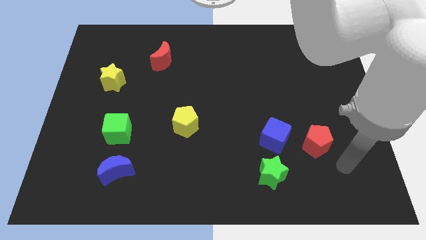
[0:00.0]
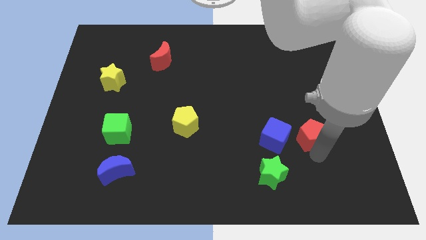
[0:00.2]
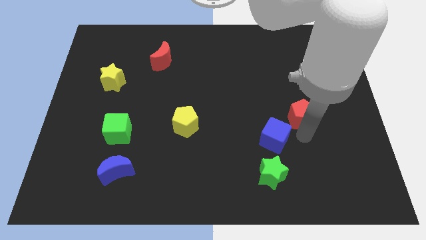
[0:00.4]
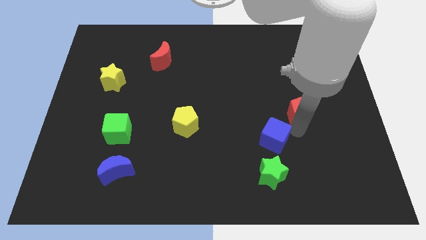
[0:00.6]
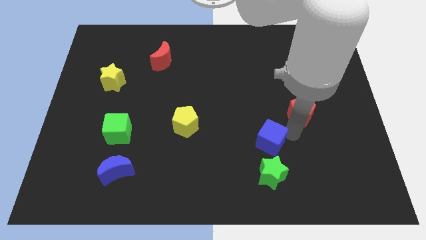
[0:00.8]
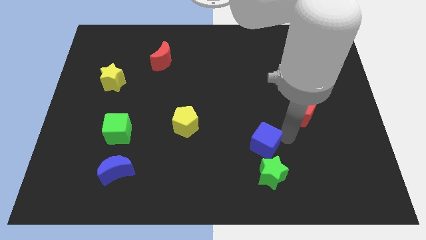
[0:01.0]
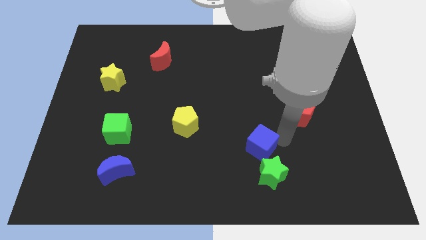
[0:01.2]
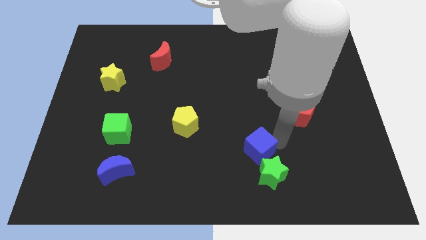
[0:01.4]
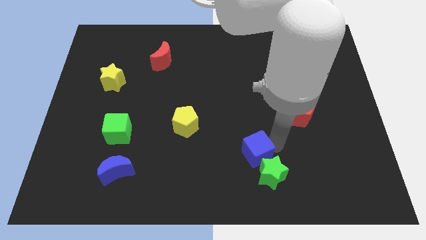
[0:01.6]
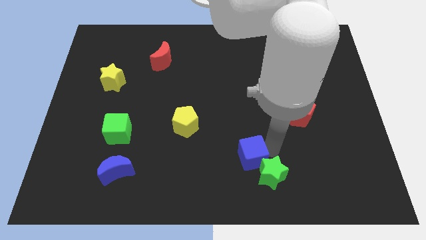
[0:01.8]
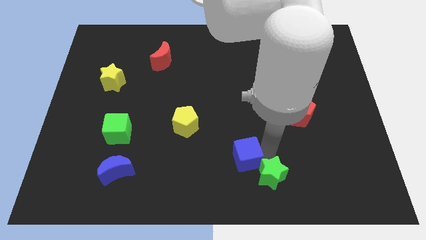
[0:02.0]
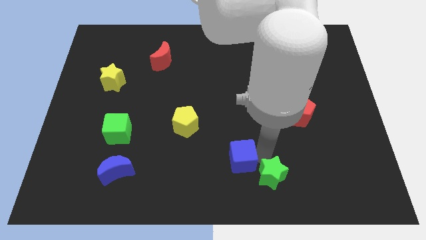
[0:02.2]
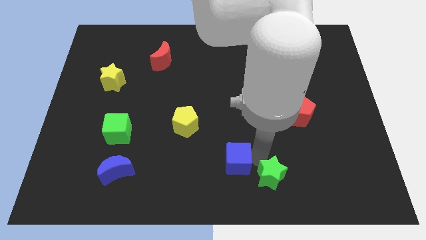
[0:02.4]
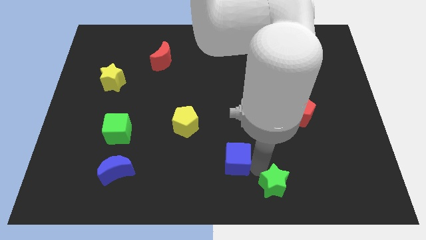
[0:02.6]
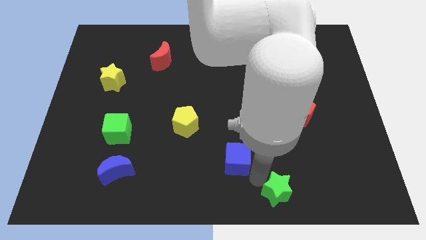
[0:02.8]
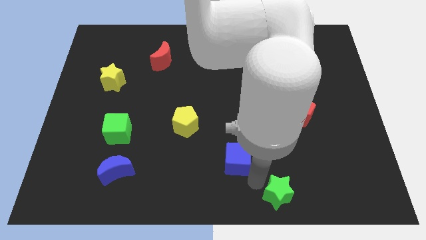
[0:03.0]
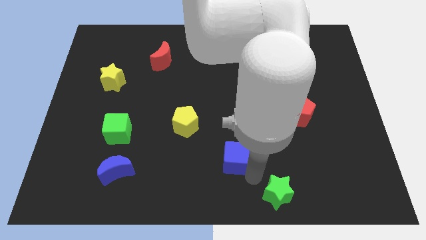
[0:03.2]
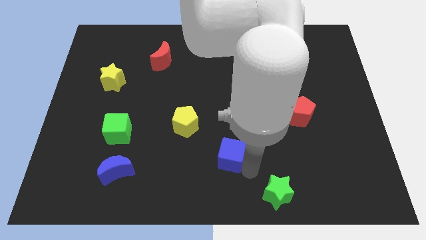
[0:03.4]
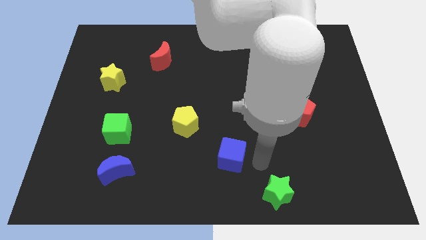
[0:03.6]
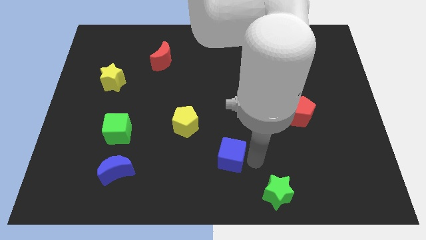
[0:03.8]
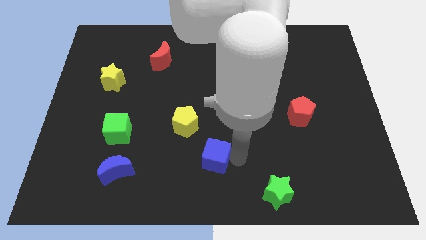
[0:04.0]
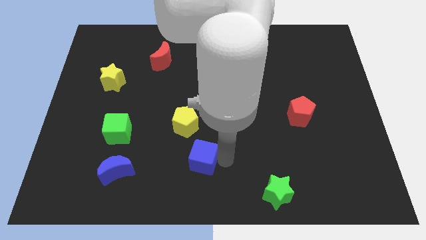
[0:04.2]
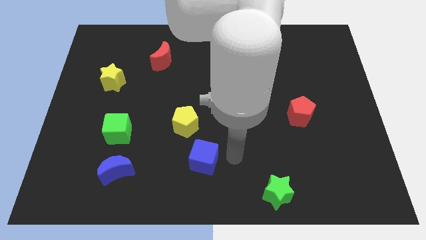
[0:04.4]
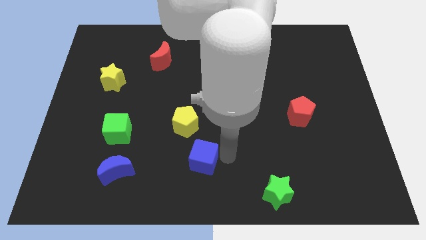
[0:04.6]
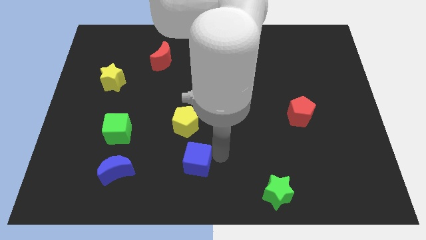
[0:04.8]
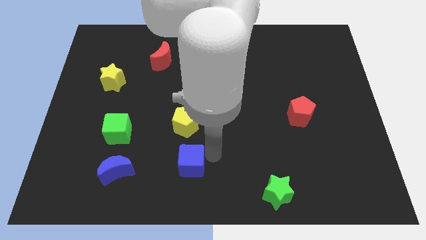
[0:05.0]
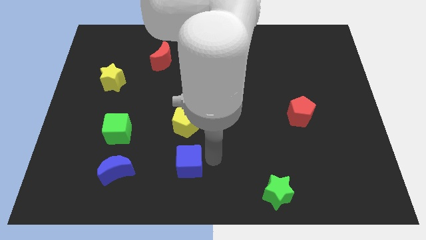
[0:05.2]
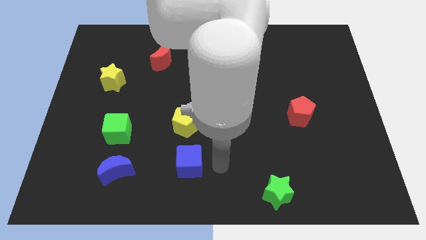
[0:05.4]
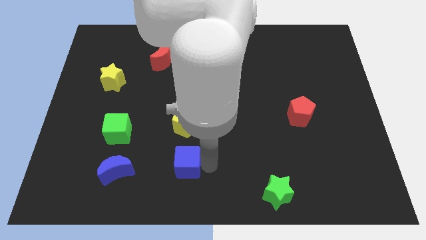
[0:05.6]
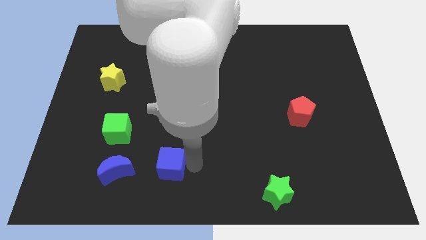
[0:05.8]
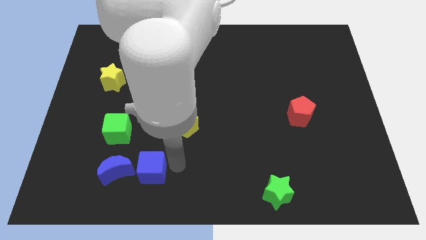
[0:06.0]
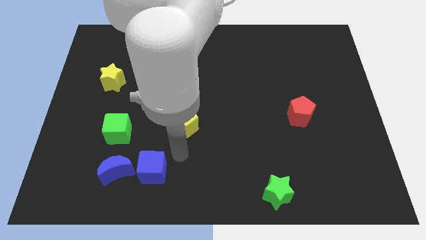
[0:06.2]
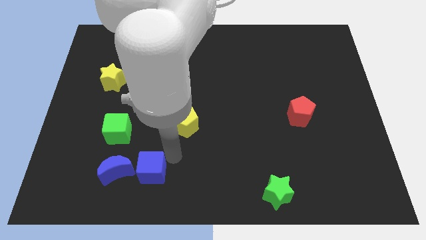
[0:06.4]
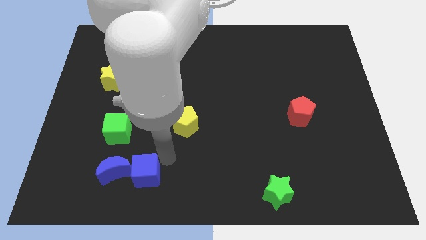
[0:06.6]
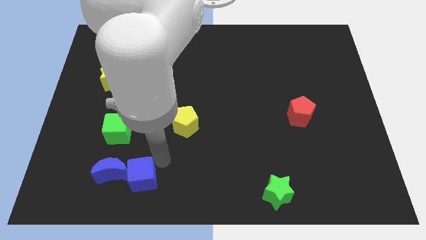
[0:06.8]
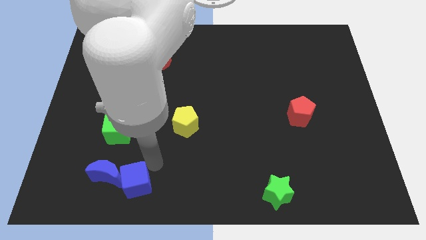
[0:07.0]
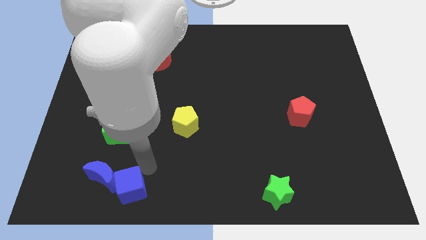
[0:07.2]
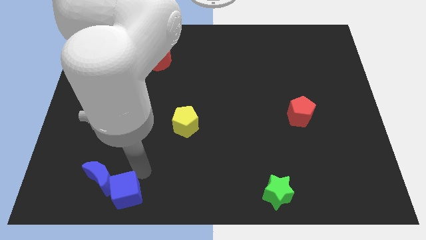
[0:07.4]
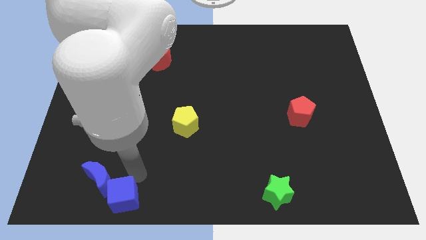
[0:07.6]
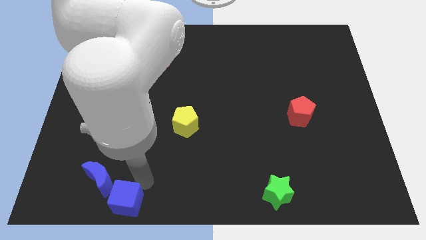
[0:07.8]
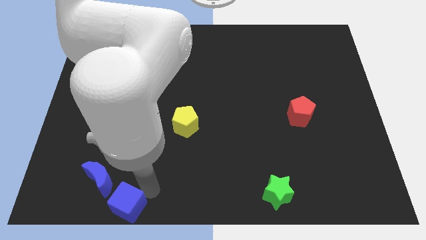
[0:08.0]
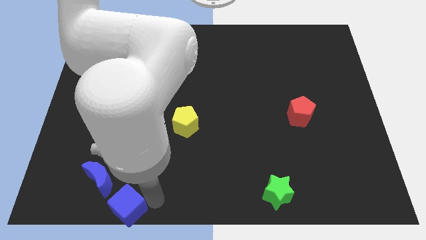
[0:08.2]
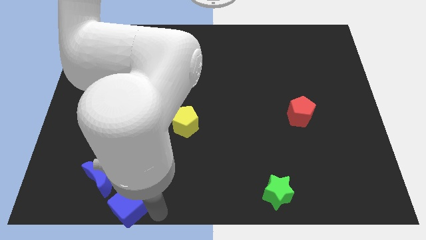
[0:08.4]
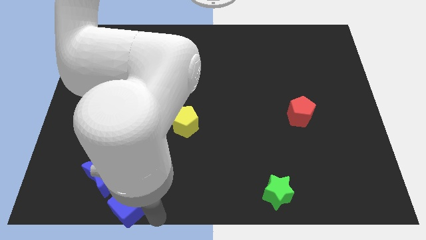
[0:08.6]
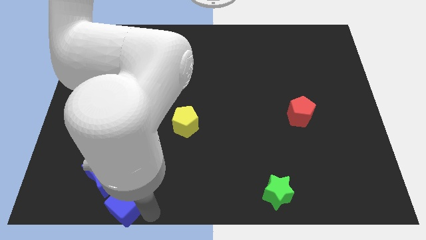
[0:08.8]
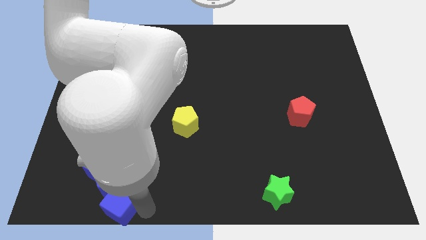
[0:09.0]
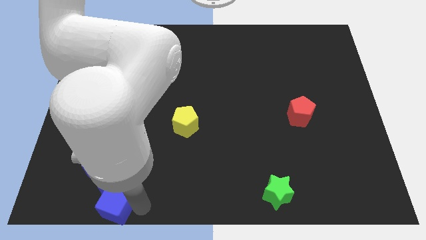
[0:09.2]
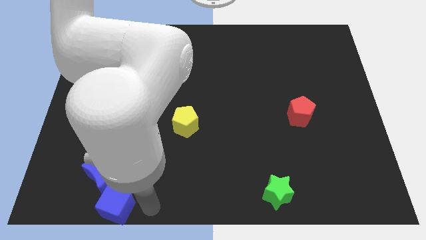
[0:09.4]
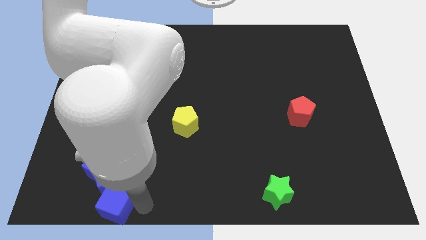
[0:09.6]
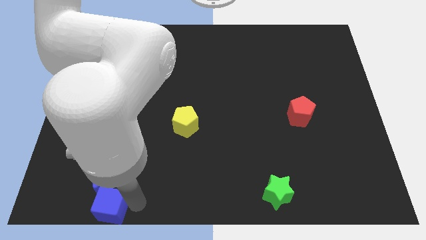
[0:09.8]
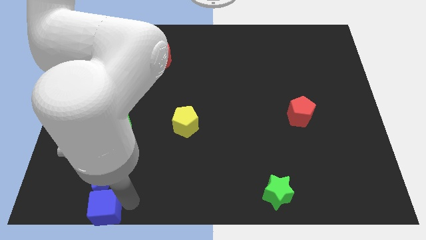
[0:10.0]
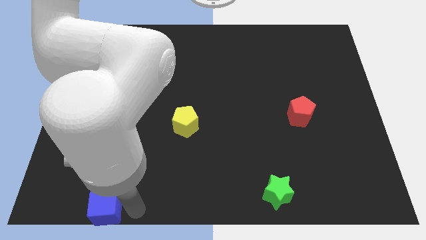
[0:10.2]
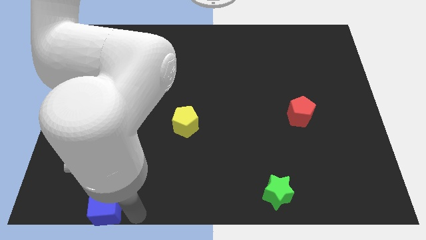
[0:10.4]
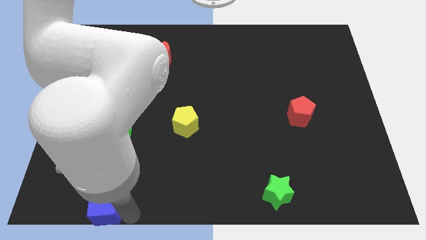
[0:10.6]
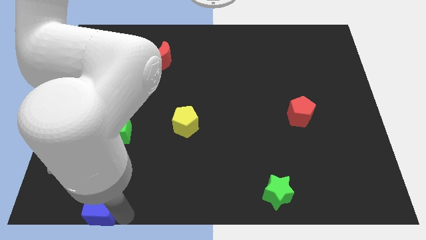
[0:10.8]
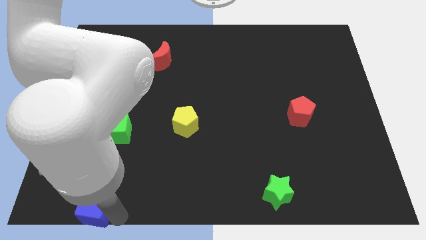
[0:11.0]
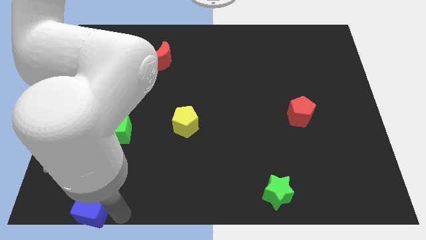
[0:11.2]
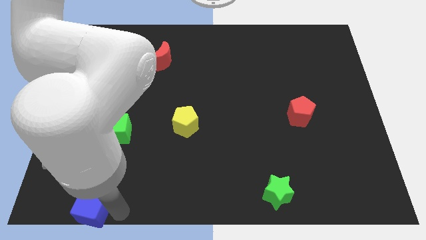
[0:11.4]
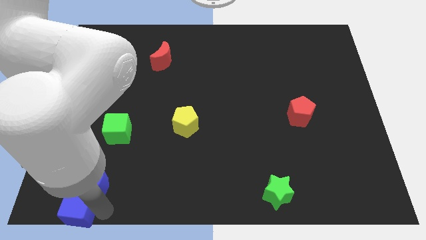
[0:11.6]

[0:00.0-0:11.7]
push the blue cube to the lower left corner

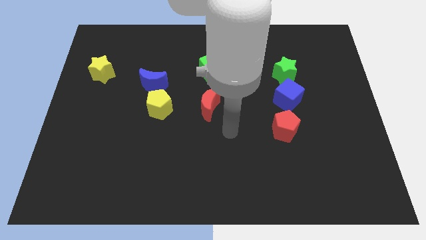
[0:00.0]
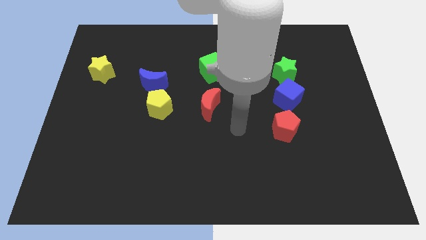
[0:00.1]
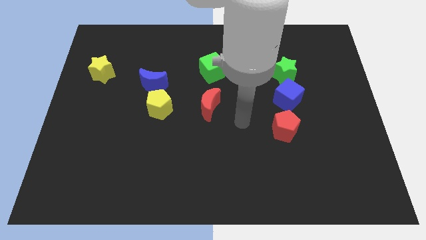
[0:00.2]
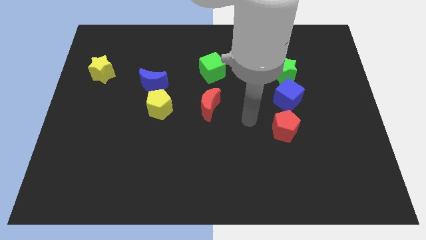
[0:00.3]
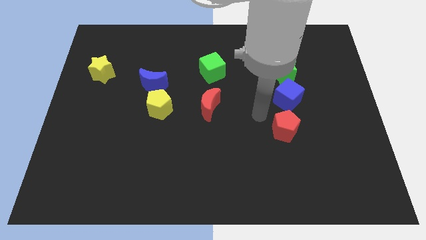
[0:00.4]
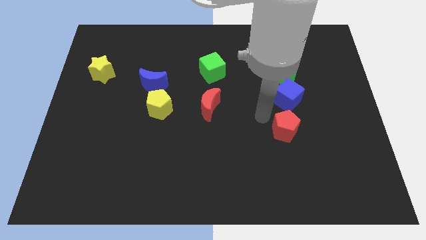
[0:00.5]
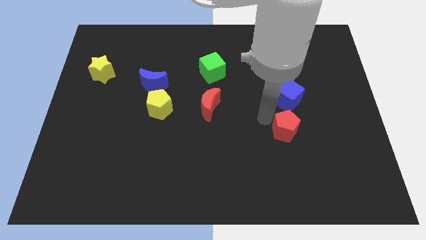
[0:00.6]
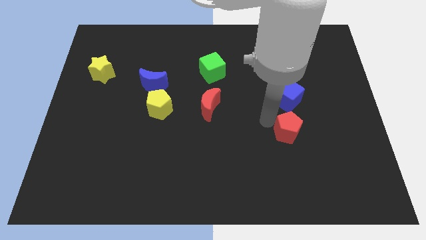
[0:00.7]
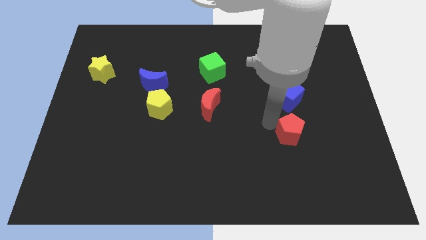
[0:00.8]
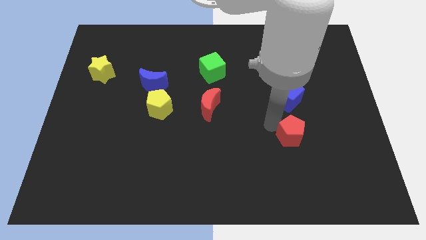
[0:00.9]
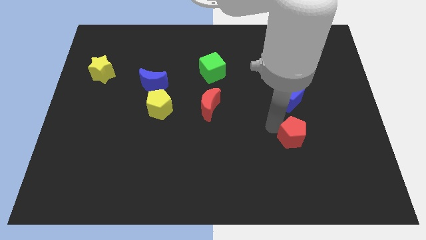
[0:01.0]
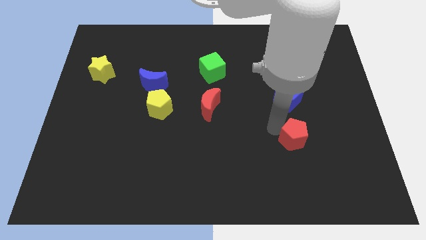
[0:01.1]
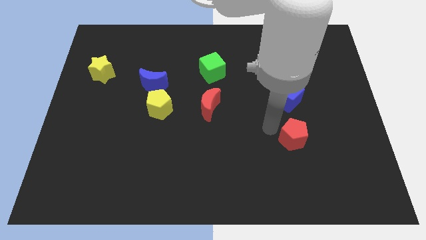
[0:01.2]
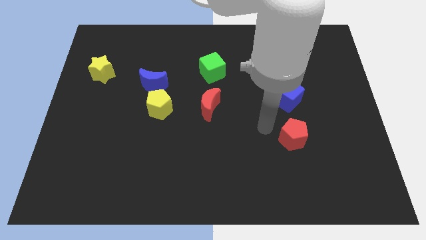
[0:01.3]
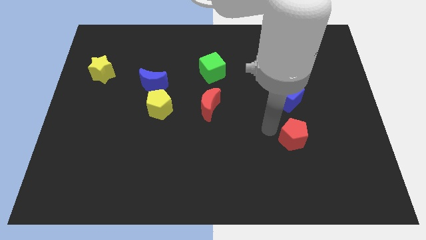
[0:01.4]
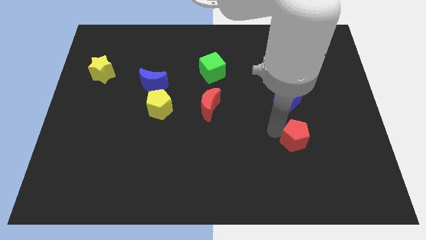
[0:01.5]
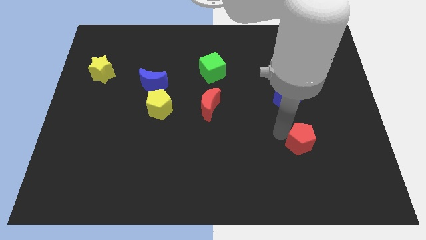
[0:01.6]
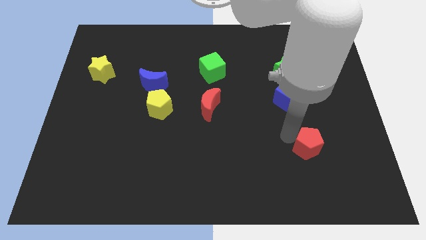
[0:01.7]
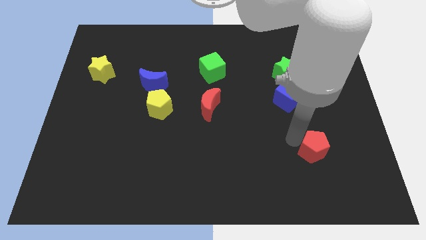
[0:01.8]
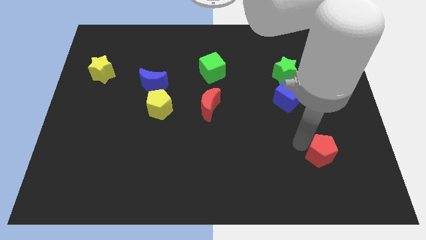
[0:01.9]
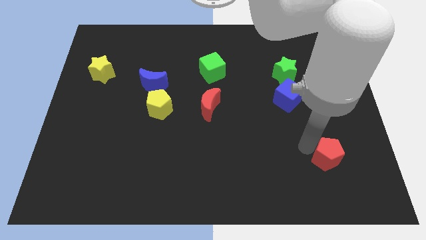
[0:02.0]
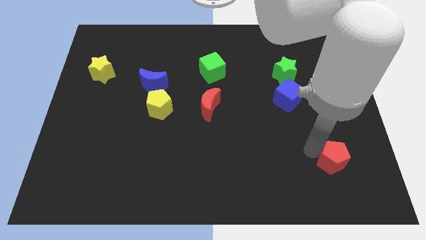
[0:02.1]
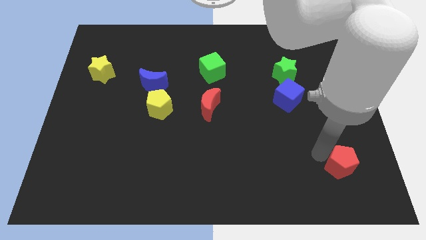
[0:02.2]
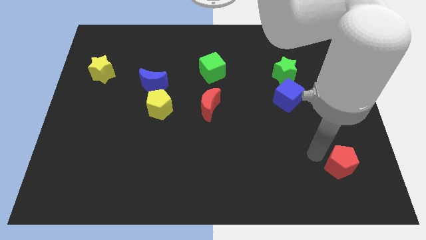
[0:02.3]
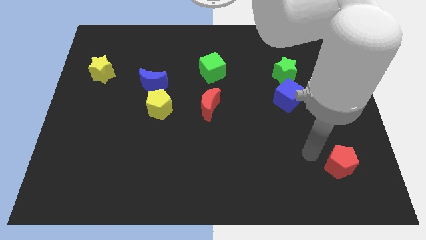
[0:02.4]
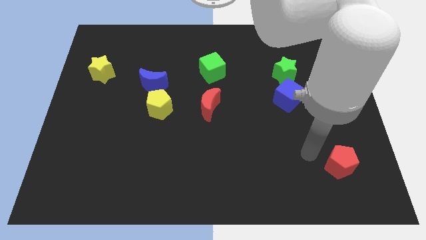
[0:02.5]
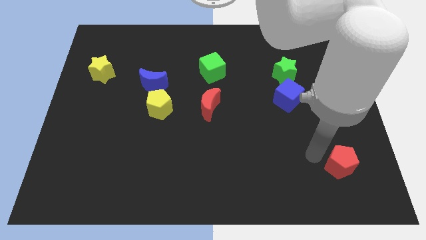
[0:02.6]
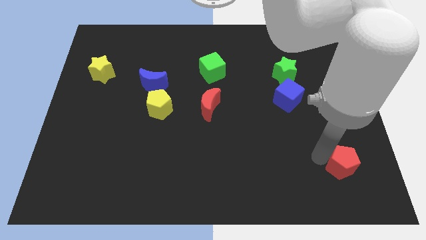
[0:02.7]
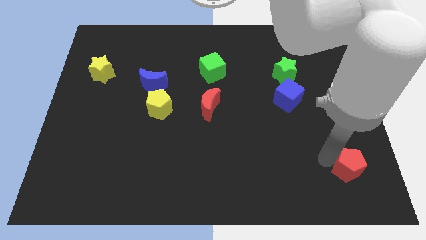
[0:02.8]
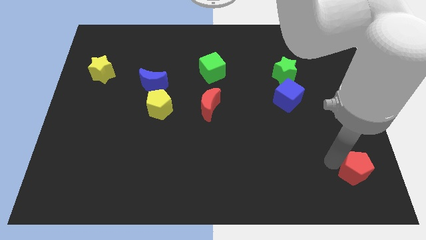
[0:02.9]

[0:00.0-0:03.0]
put the red pentagon to the bottom right corner
